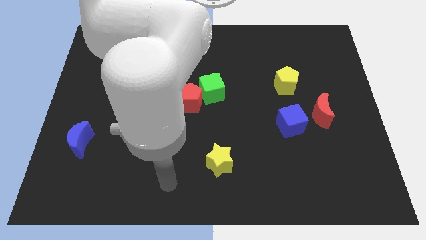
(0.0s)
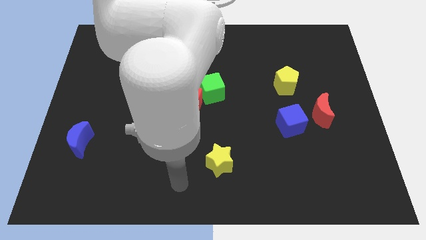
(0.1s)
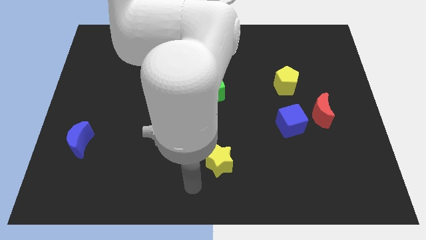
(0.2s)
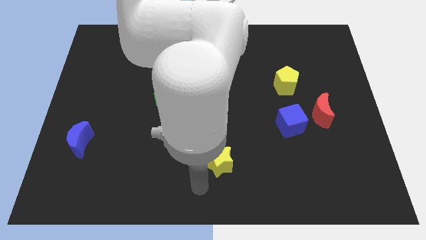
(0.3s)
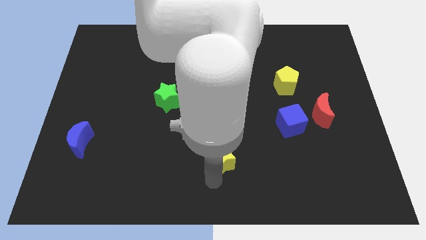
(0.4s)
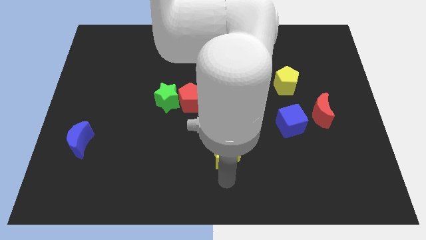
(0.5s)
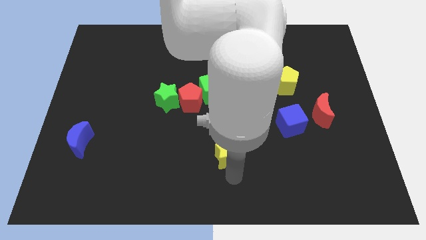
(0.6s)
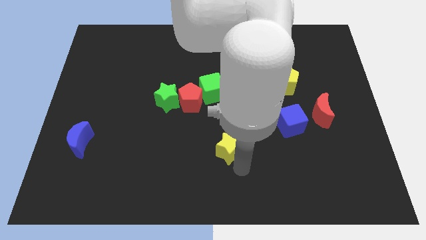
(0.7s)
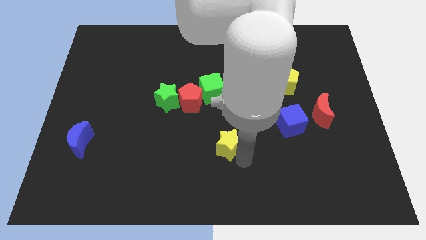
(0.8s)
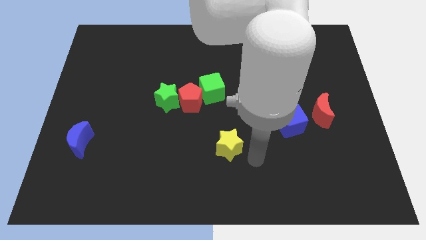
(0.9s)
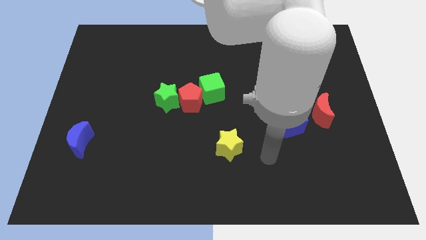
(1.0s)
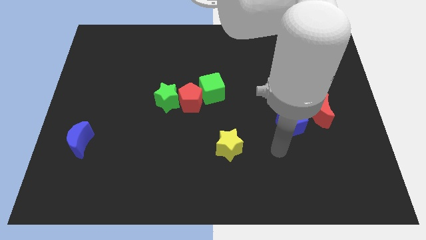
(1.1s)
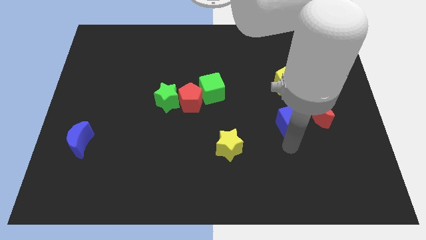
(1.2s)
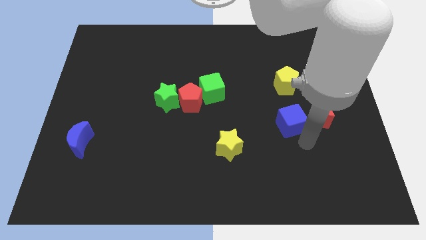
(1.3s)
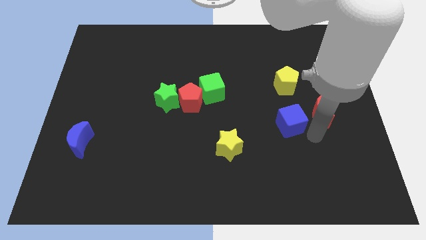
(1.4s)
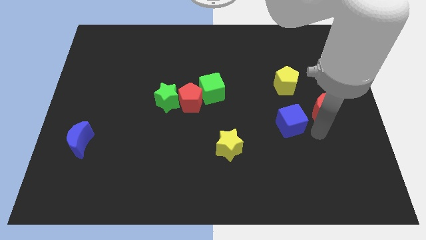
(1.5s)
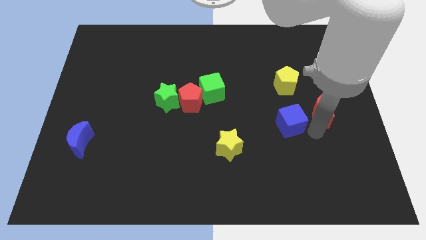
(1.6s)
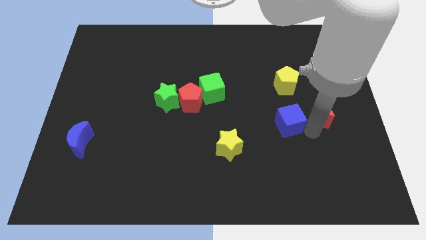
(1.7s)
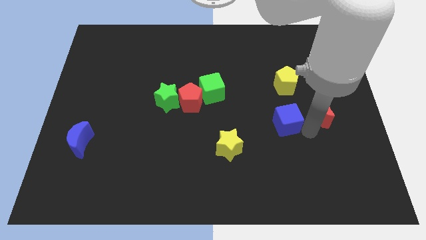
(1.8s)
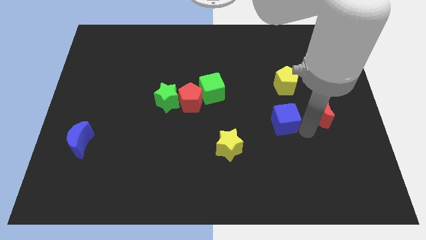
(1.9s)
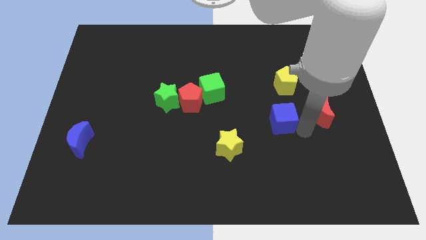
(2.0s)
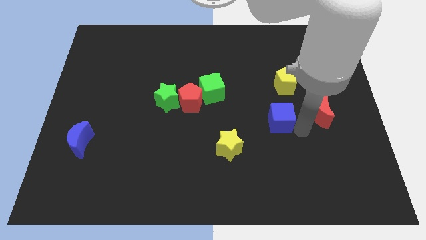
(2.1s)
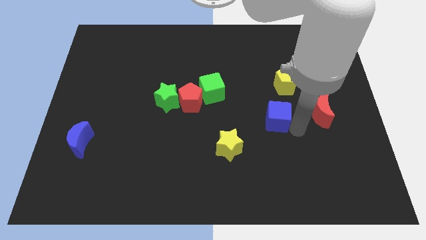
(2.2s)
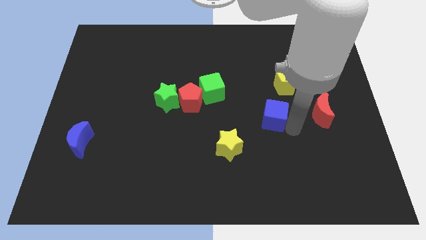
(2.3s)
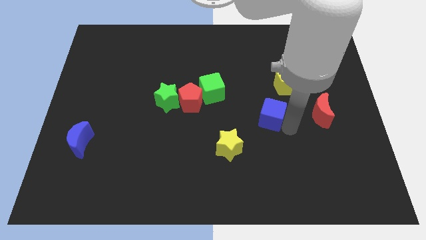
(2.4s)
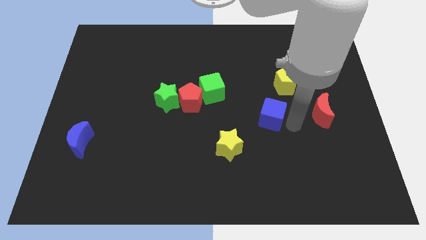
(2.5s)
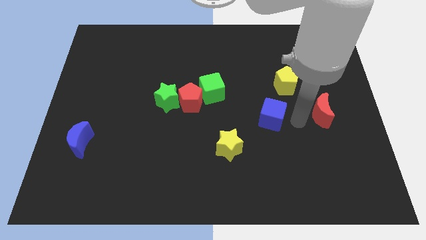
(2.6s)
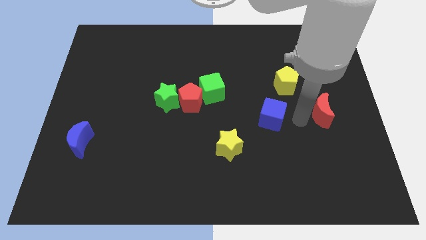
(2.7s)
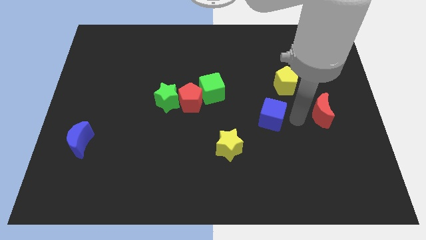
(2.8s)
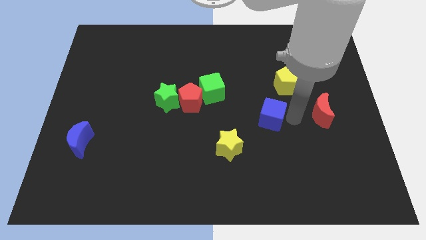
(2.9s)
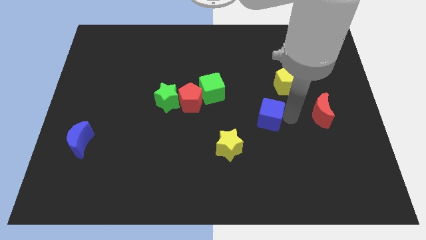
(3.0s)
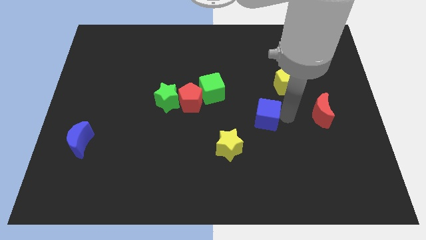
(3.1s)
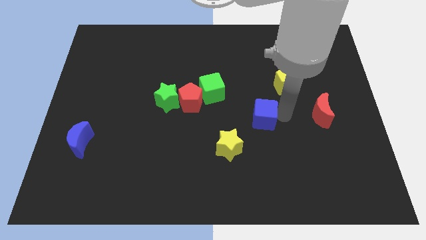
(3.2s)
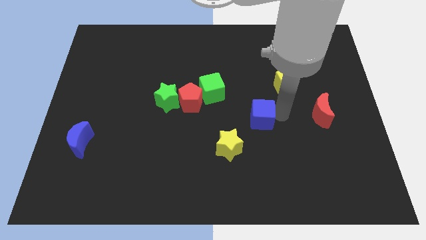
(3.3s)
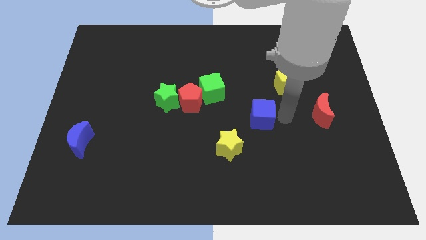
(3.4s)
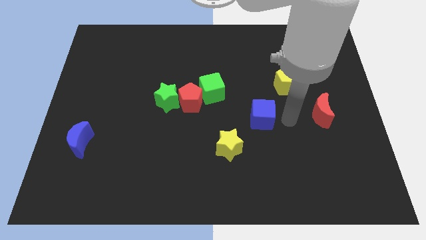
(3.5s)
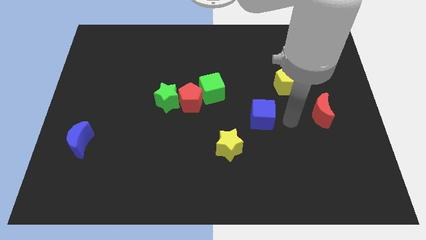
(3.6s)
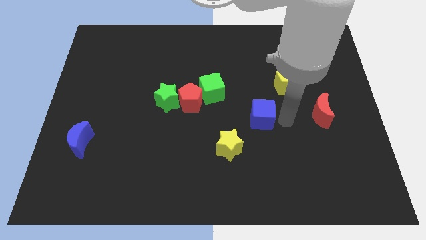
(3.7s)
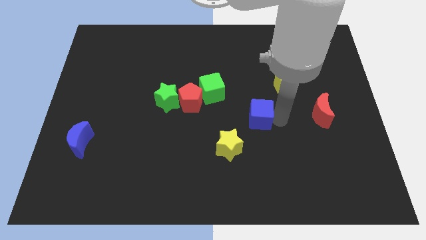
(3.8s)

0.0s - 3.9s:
move the blue cube left a little

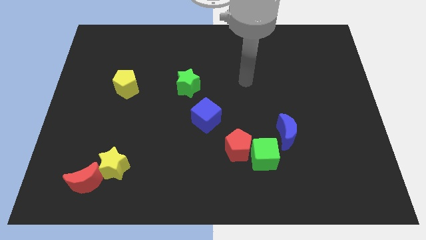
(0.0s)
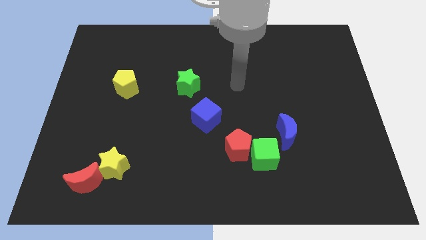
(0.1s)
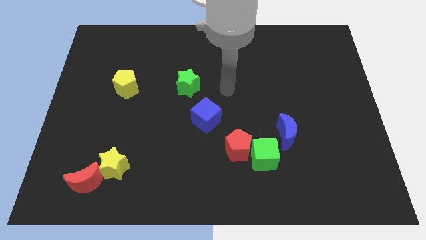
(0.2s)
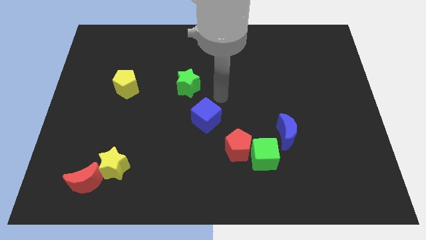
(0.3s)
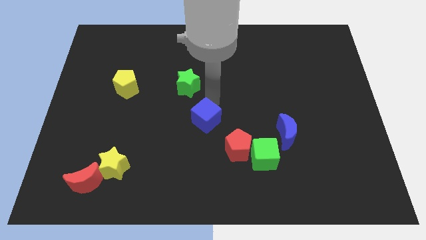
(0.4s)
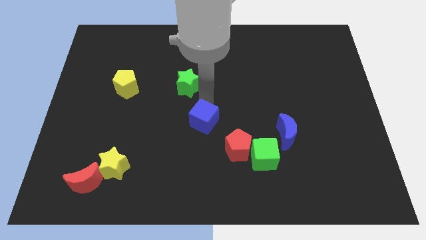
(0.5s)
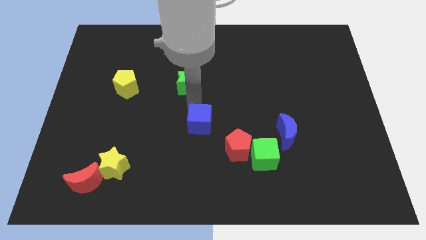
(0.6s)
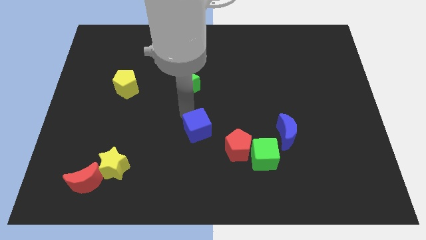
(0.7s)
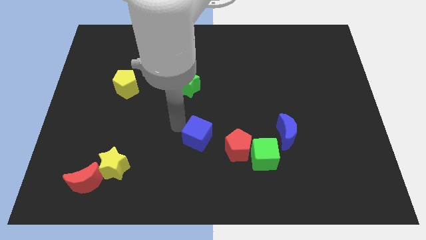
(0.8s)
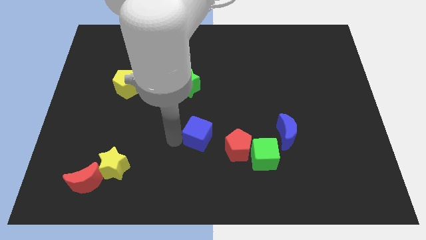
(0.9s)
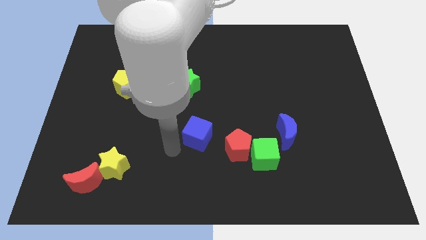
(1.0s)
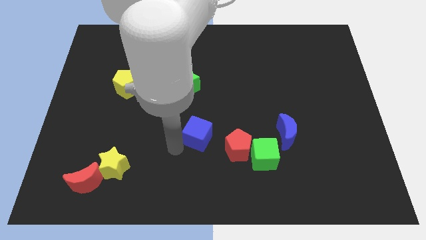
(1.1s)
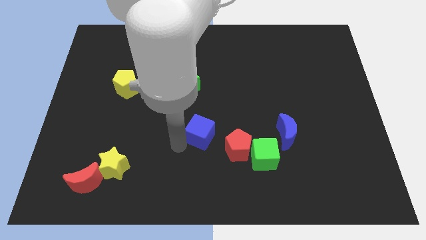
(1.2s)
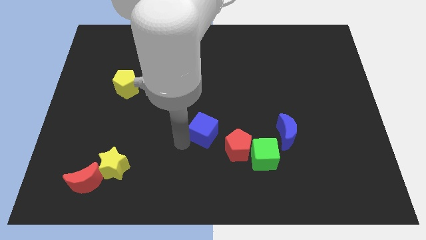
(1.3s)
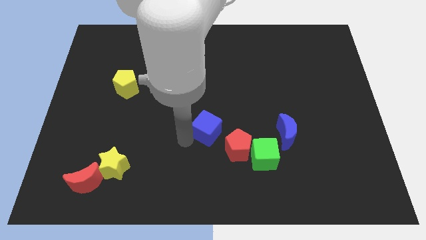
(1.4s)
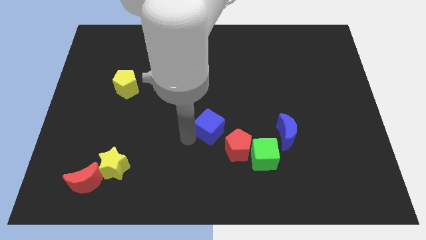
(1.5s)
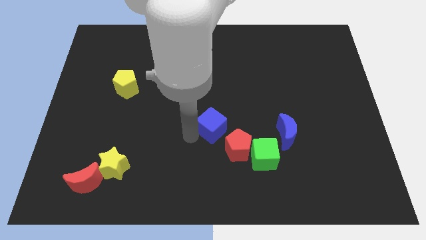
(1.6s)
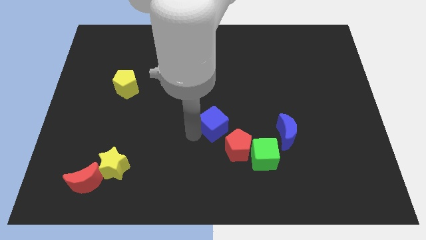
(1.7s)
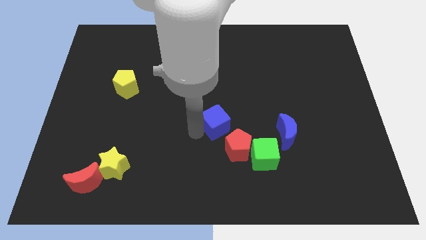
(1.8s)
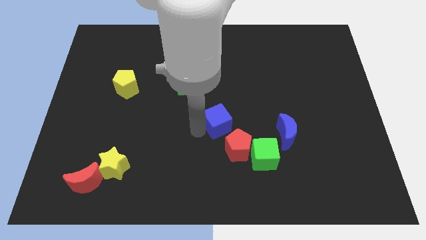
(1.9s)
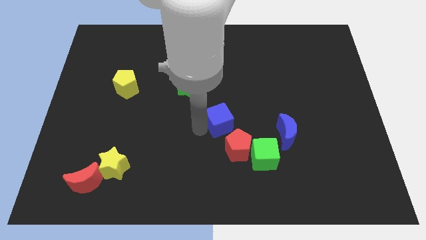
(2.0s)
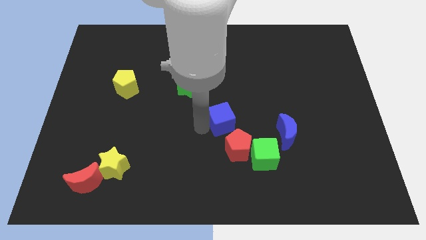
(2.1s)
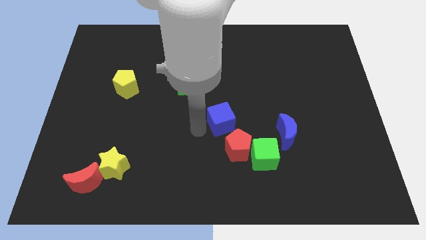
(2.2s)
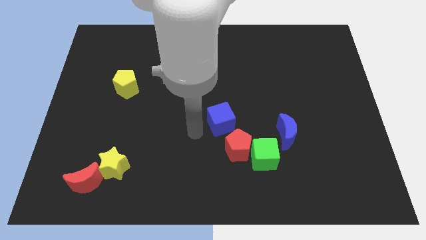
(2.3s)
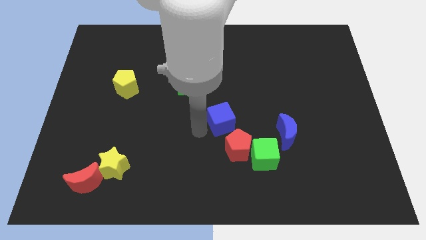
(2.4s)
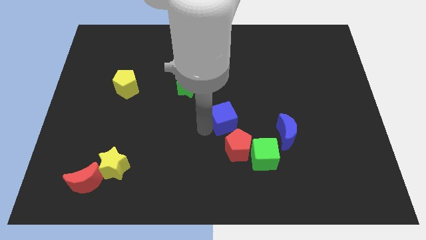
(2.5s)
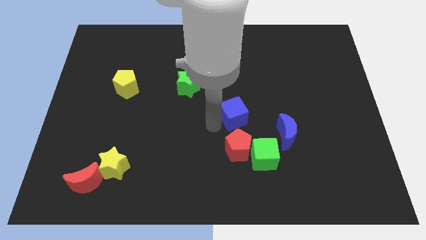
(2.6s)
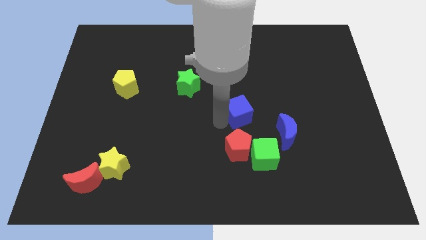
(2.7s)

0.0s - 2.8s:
slide the blue cube right slightly

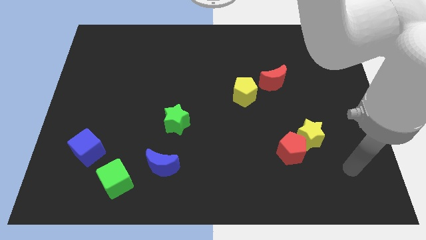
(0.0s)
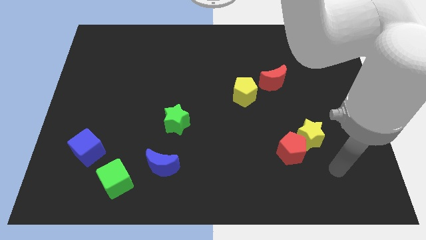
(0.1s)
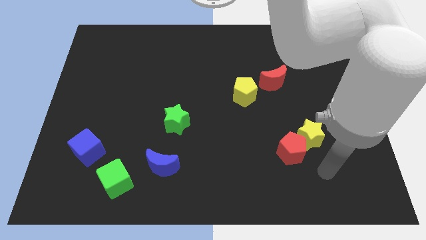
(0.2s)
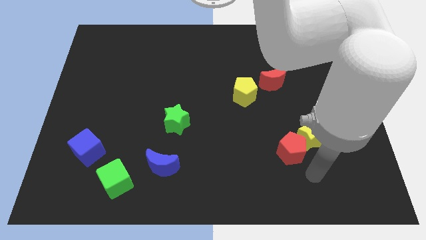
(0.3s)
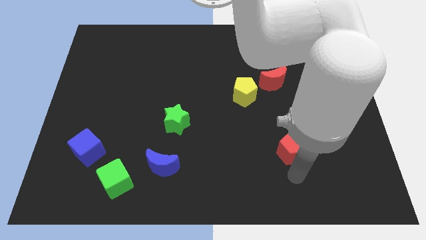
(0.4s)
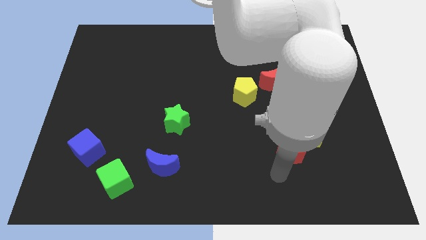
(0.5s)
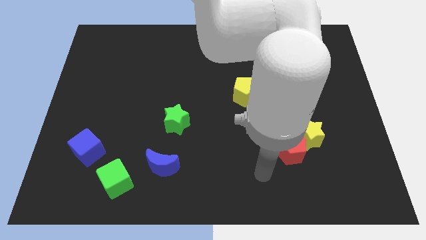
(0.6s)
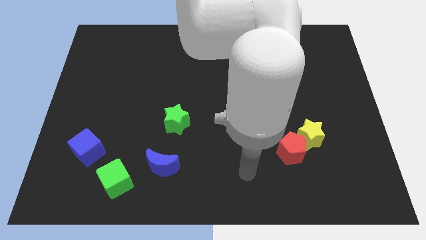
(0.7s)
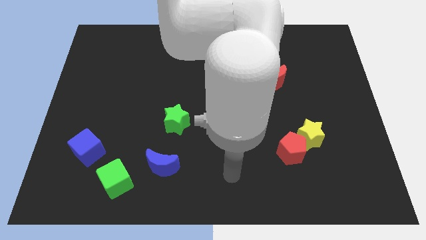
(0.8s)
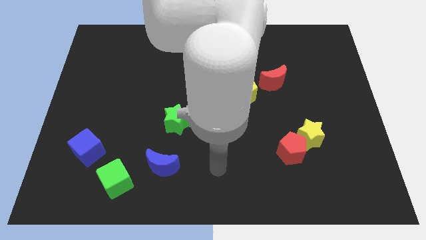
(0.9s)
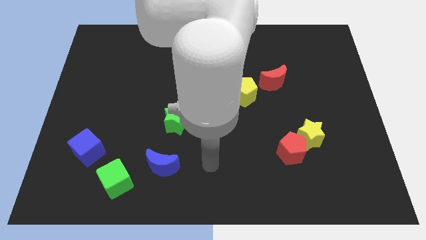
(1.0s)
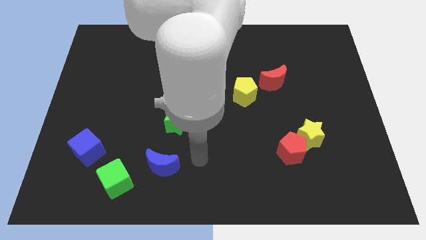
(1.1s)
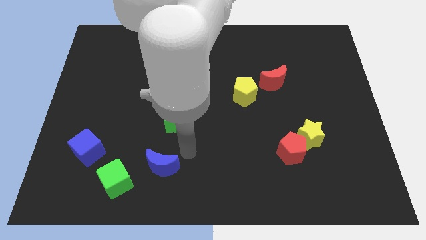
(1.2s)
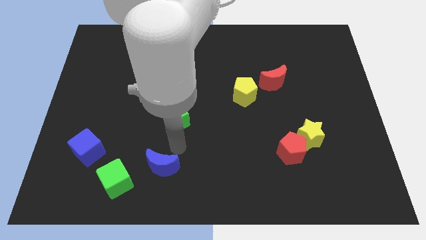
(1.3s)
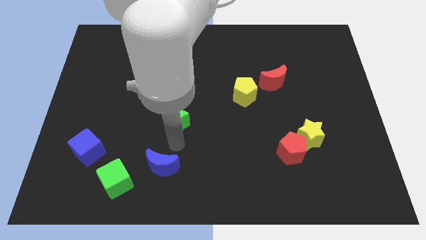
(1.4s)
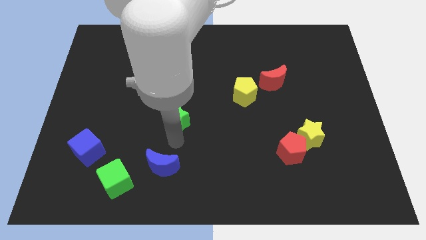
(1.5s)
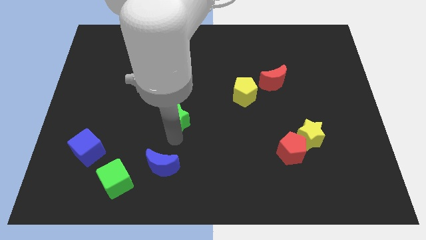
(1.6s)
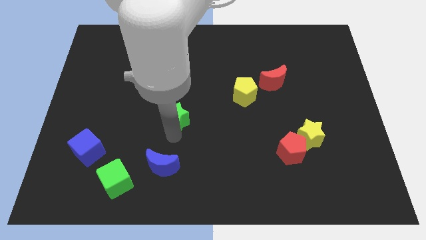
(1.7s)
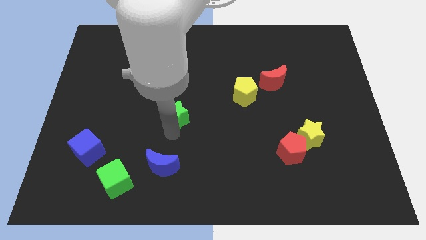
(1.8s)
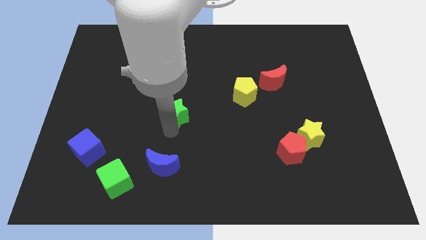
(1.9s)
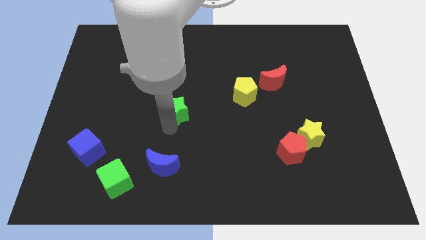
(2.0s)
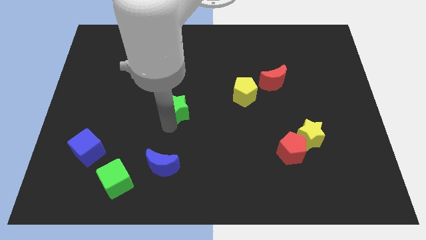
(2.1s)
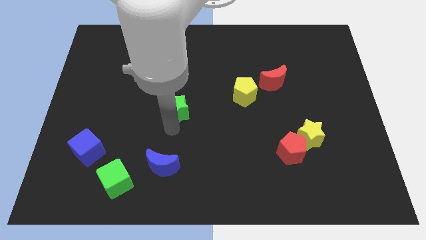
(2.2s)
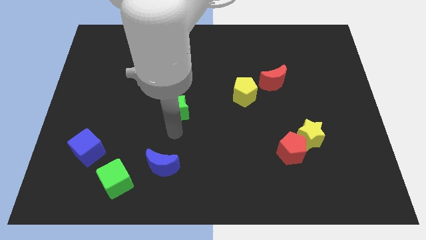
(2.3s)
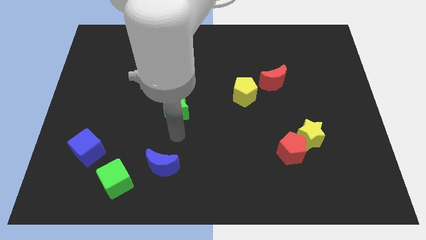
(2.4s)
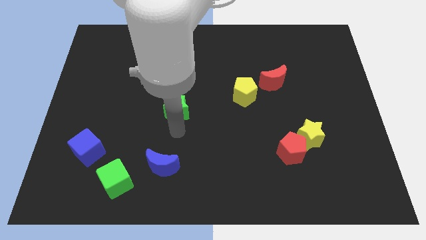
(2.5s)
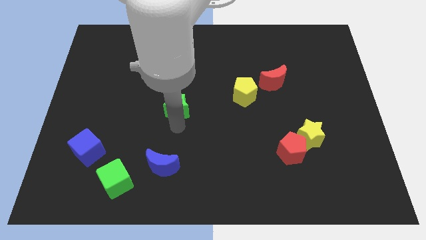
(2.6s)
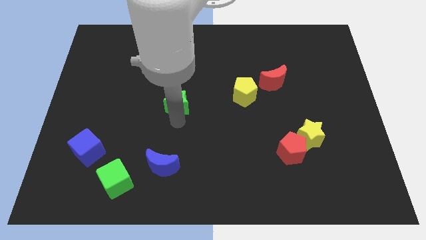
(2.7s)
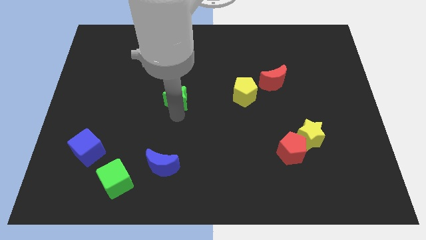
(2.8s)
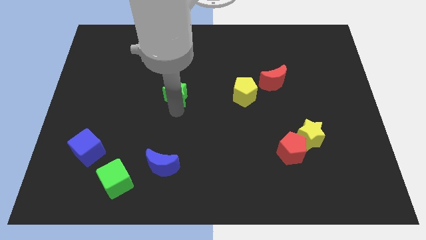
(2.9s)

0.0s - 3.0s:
slightly move the green star up
